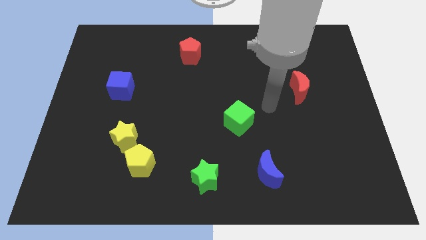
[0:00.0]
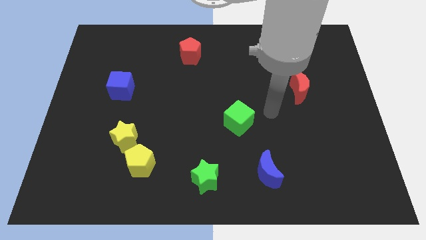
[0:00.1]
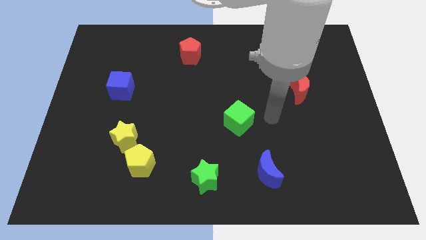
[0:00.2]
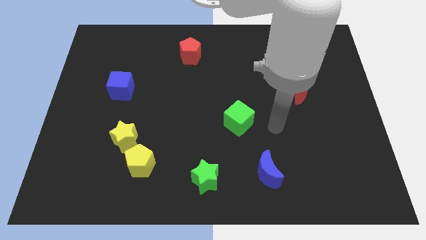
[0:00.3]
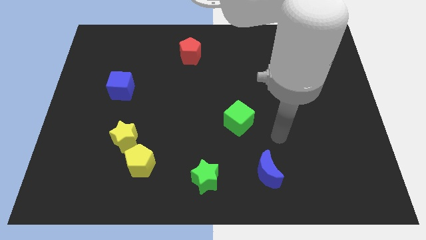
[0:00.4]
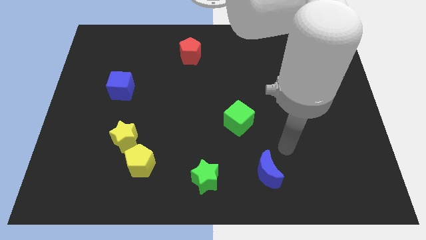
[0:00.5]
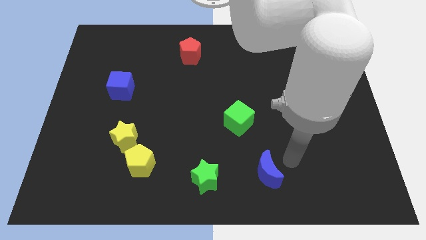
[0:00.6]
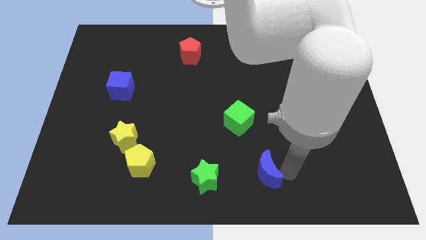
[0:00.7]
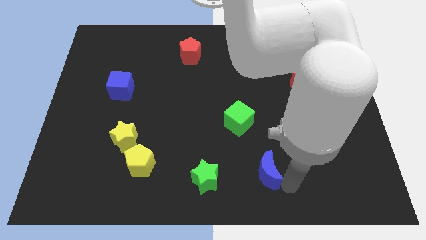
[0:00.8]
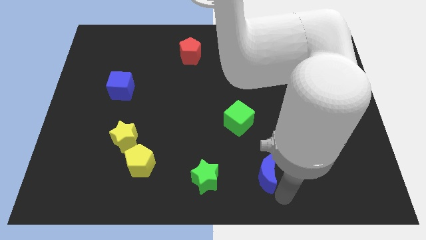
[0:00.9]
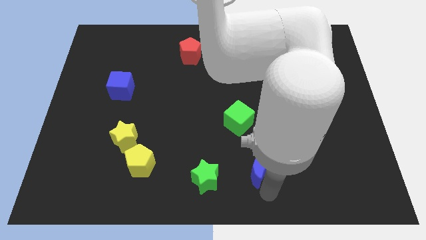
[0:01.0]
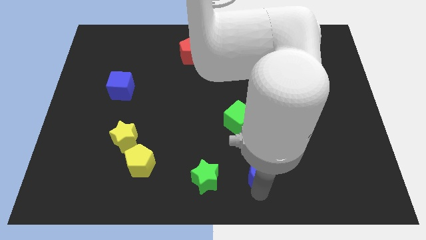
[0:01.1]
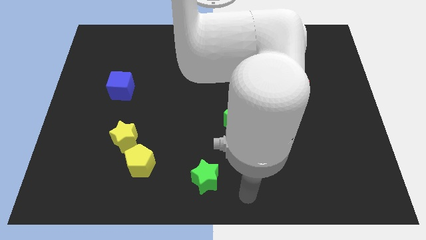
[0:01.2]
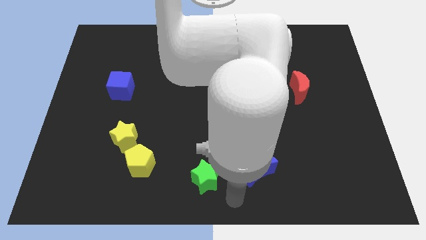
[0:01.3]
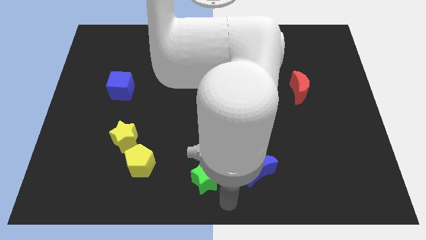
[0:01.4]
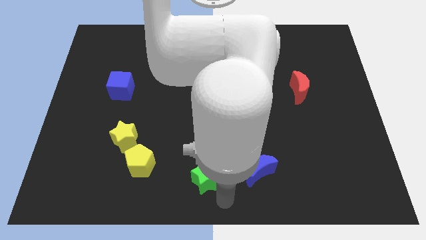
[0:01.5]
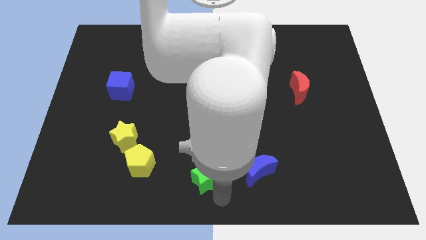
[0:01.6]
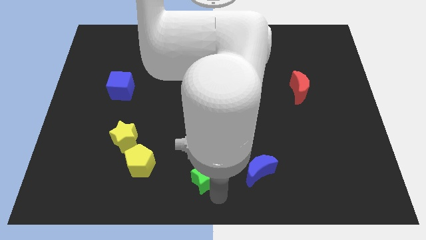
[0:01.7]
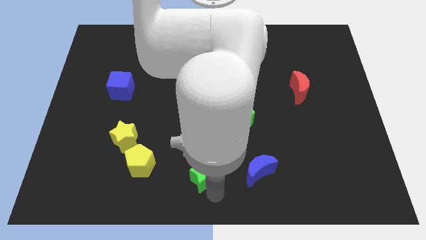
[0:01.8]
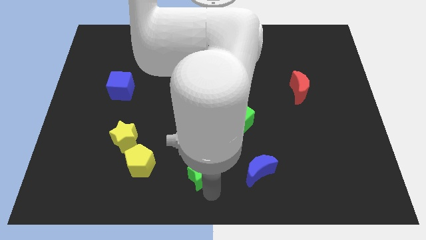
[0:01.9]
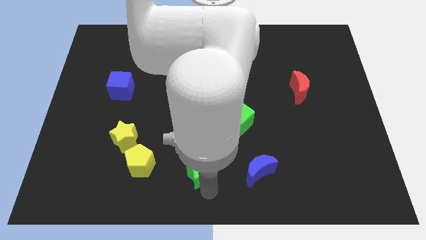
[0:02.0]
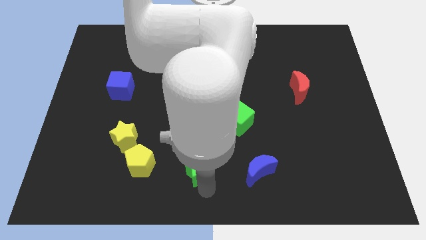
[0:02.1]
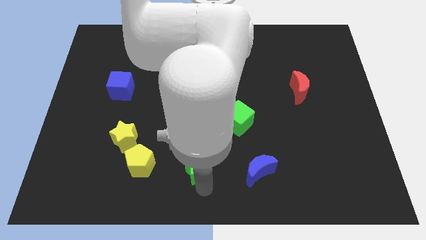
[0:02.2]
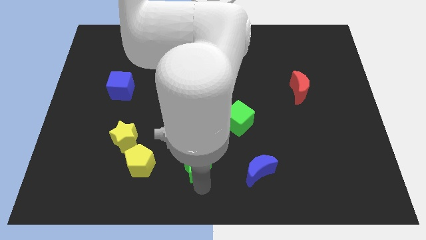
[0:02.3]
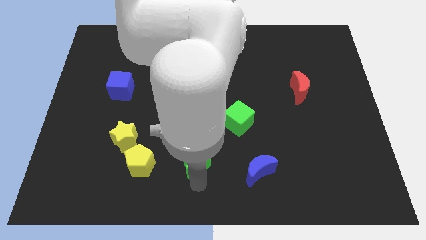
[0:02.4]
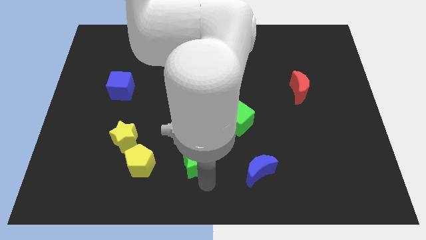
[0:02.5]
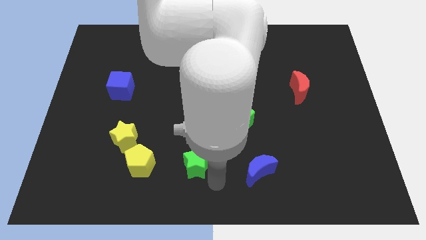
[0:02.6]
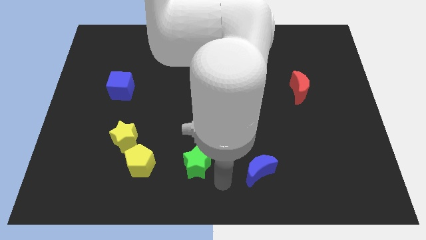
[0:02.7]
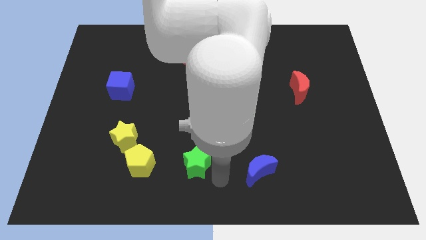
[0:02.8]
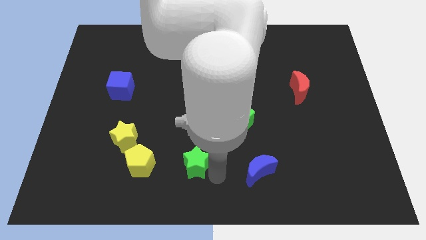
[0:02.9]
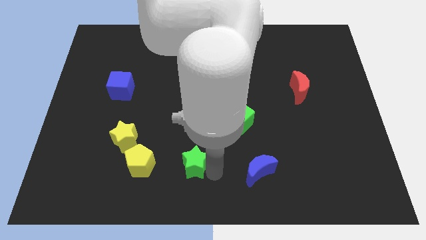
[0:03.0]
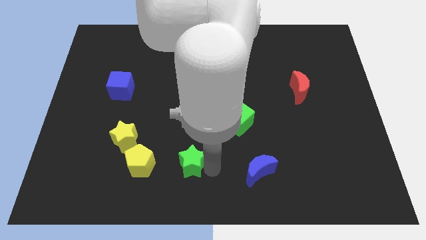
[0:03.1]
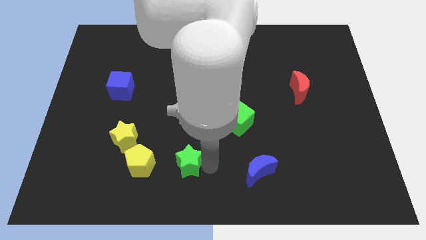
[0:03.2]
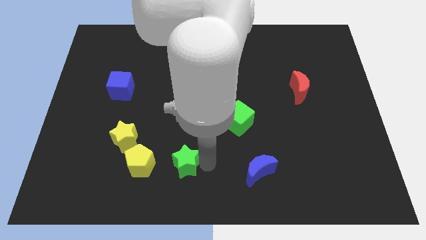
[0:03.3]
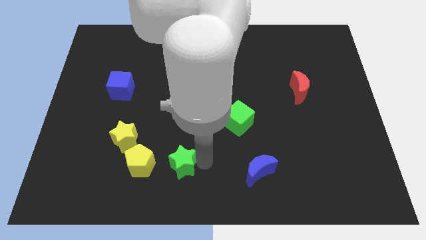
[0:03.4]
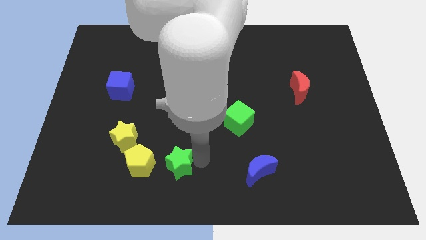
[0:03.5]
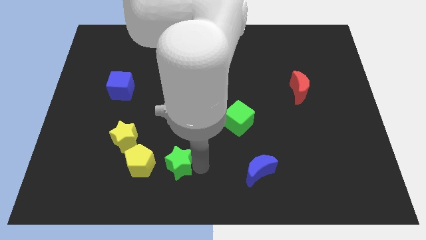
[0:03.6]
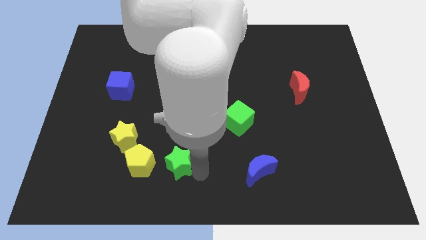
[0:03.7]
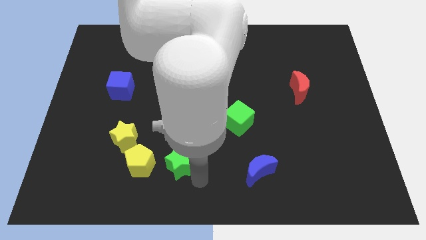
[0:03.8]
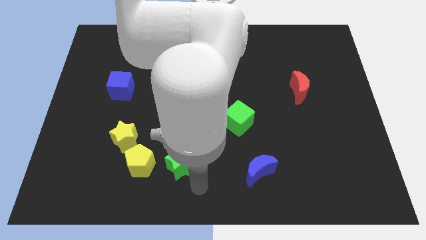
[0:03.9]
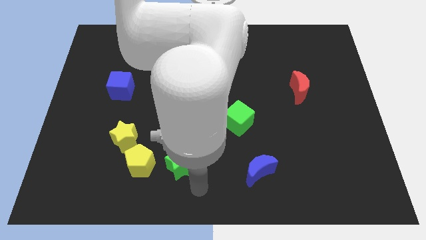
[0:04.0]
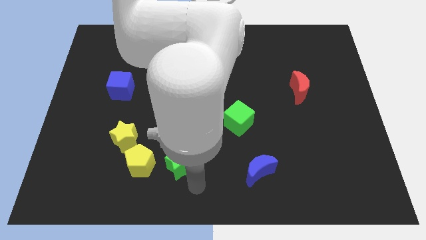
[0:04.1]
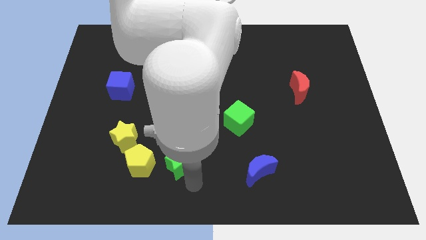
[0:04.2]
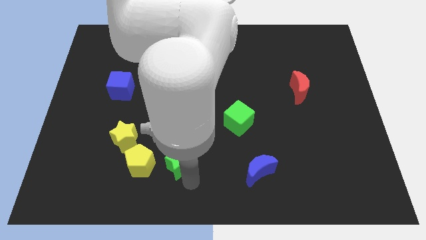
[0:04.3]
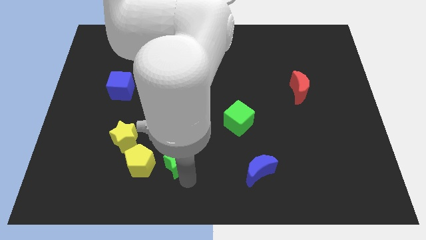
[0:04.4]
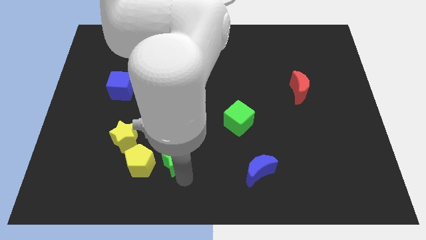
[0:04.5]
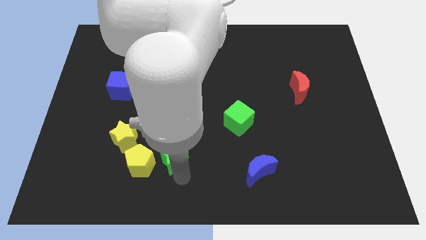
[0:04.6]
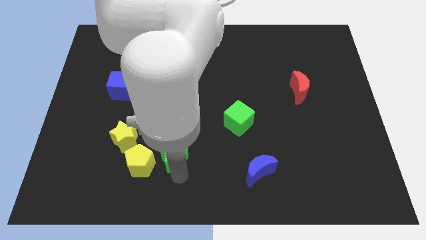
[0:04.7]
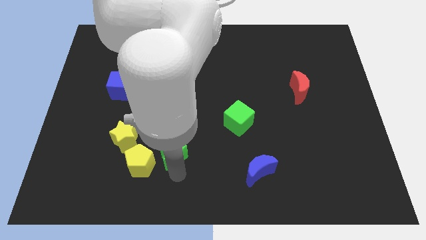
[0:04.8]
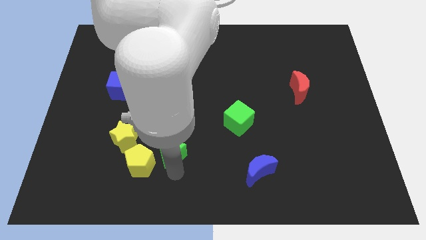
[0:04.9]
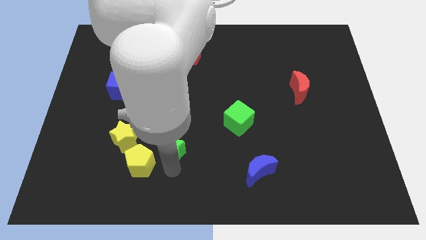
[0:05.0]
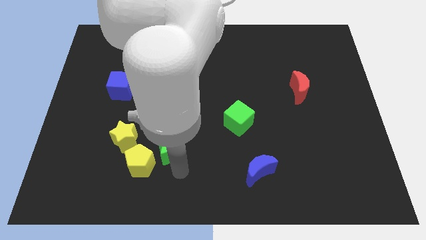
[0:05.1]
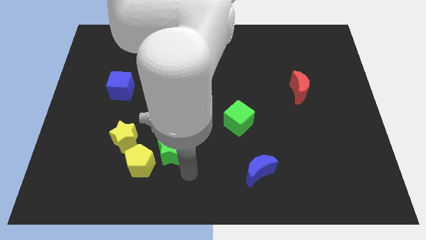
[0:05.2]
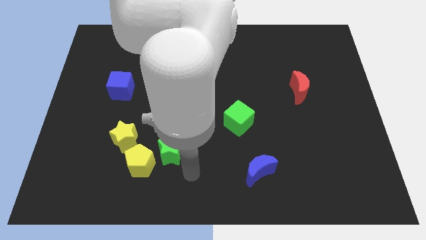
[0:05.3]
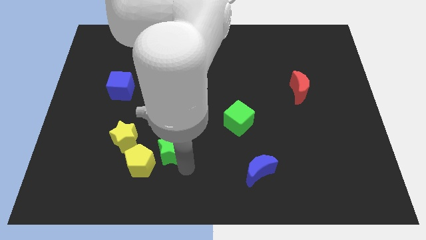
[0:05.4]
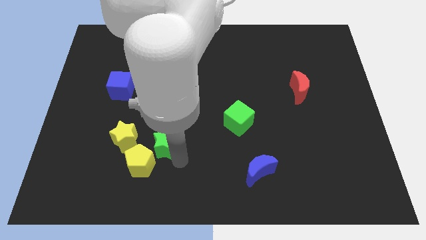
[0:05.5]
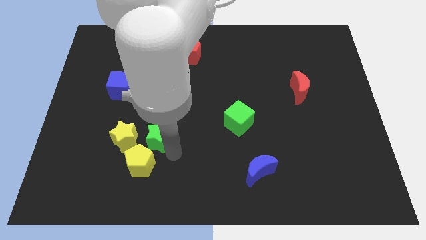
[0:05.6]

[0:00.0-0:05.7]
put the green star to the top of the yellow pentagon

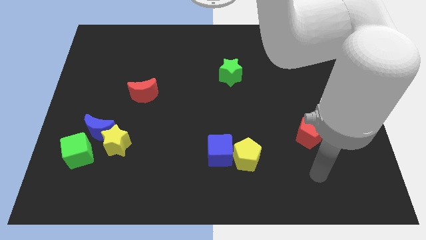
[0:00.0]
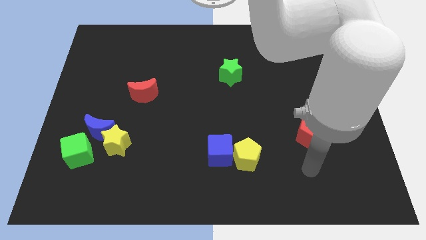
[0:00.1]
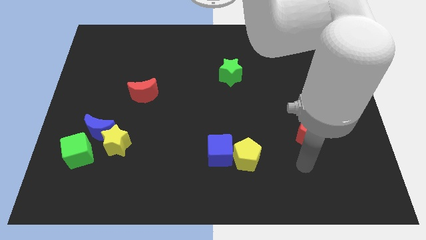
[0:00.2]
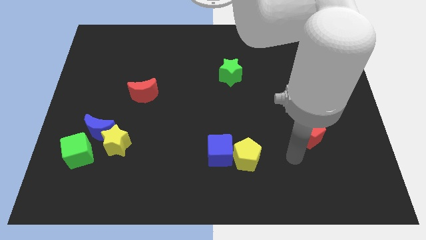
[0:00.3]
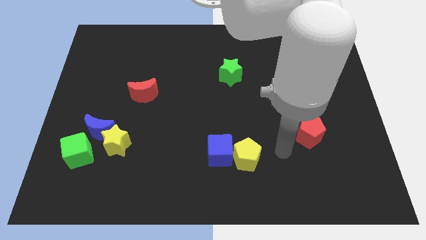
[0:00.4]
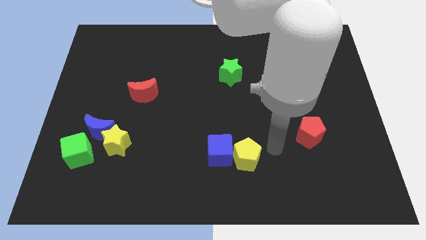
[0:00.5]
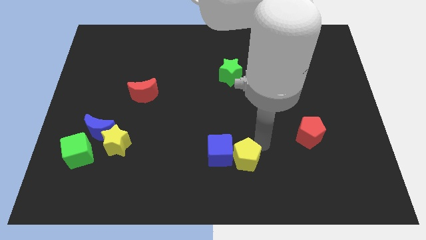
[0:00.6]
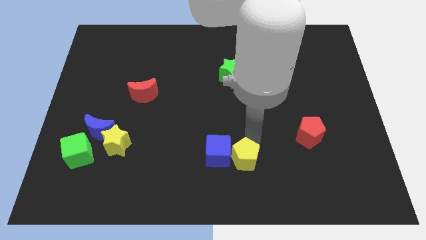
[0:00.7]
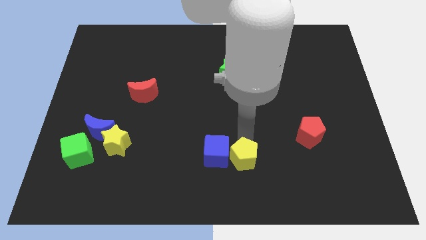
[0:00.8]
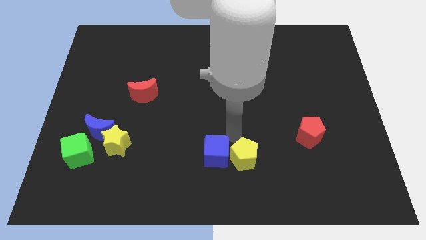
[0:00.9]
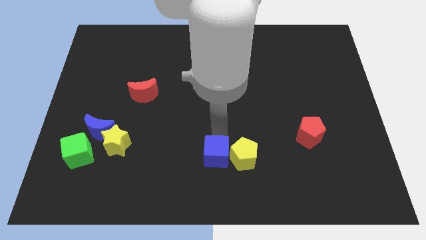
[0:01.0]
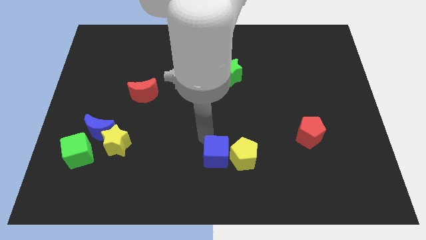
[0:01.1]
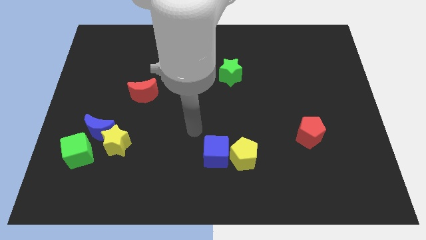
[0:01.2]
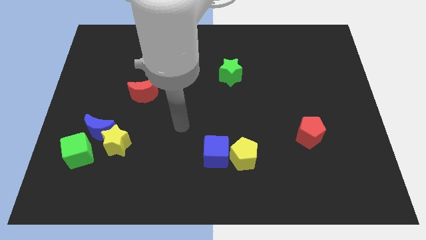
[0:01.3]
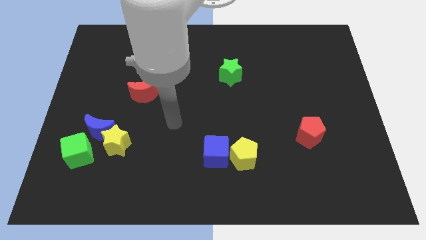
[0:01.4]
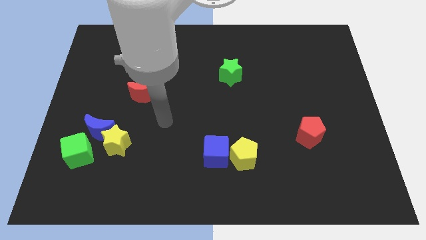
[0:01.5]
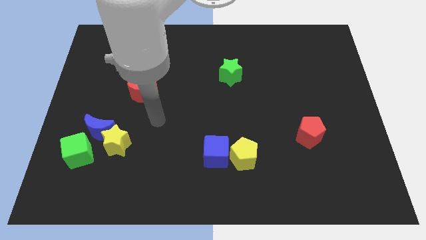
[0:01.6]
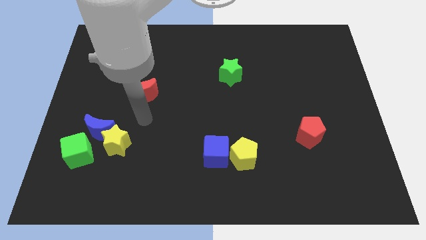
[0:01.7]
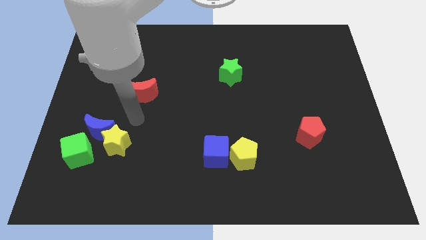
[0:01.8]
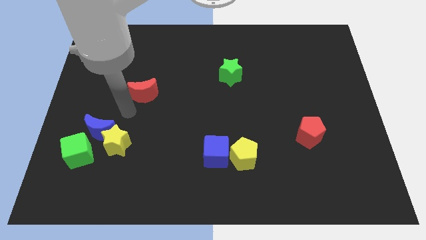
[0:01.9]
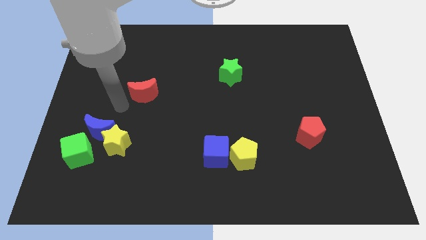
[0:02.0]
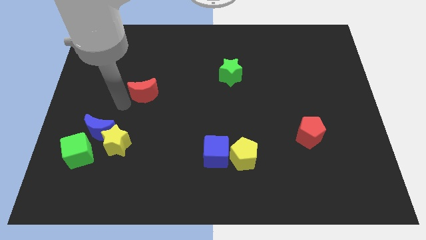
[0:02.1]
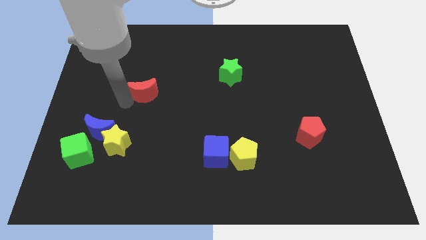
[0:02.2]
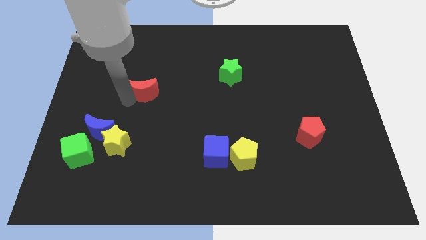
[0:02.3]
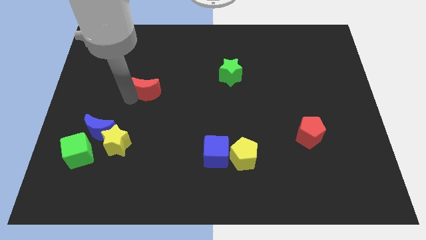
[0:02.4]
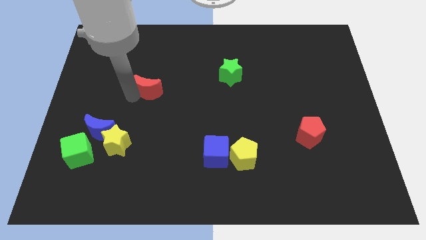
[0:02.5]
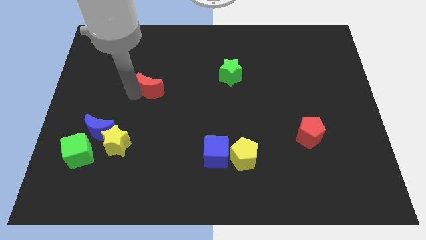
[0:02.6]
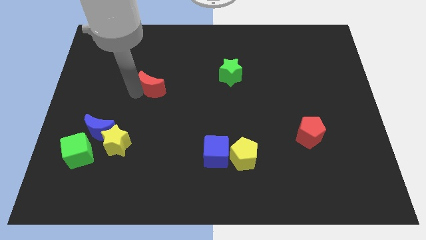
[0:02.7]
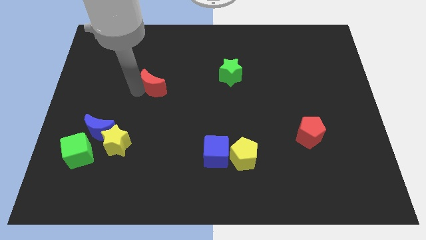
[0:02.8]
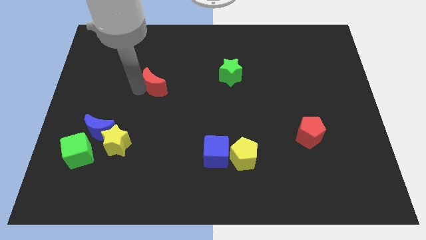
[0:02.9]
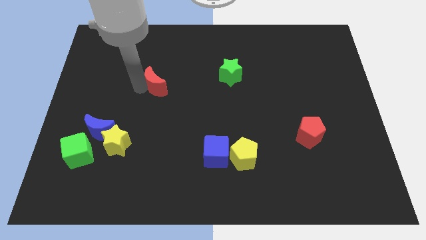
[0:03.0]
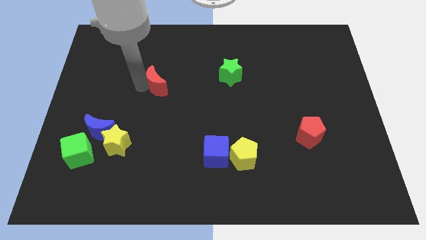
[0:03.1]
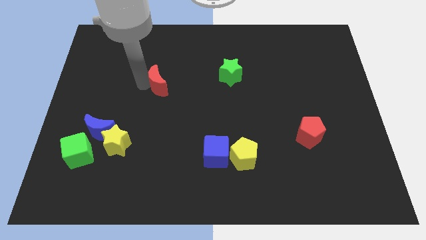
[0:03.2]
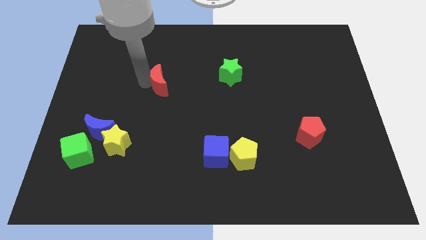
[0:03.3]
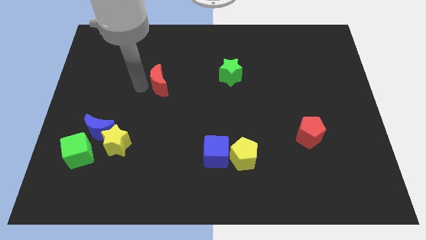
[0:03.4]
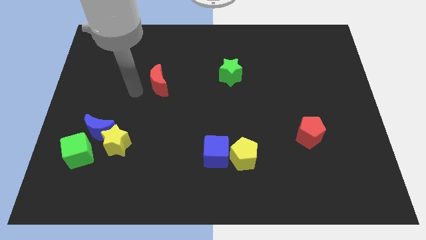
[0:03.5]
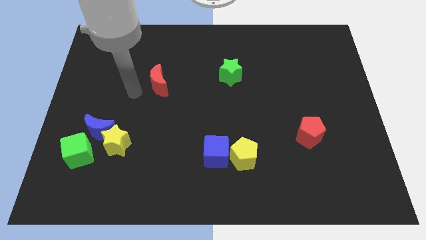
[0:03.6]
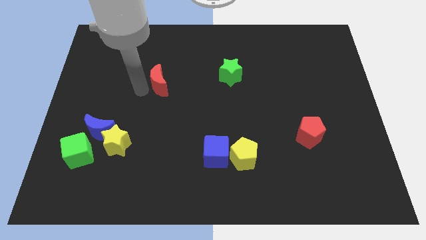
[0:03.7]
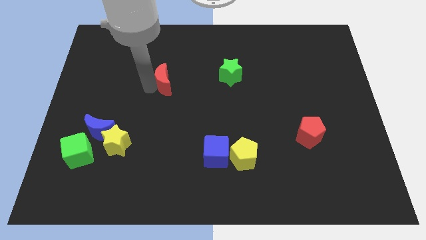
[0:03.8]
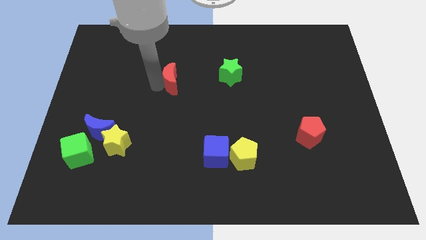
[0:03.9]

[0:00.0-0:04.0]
push the red moon left of the green star
